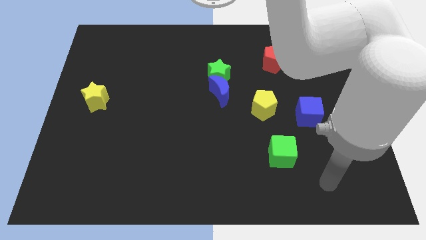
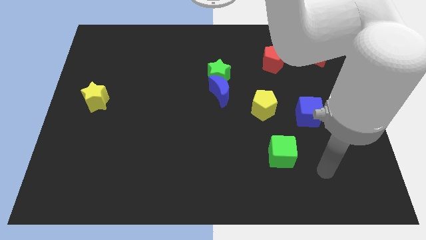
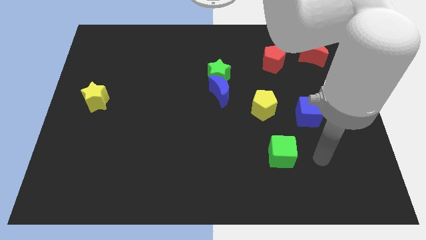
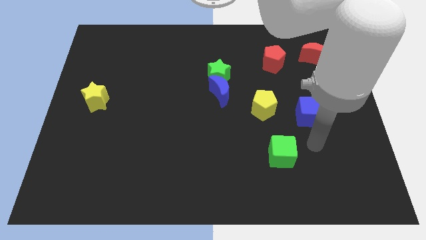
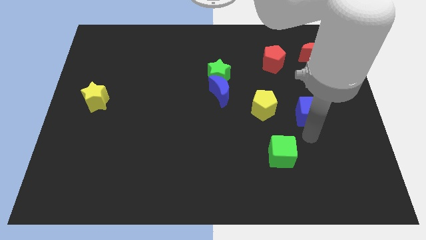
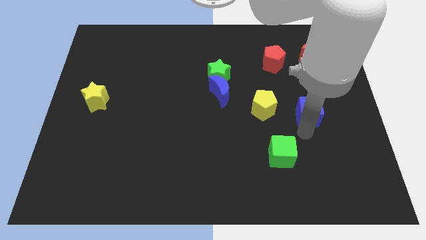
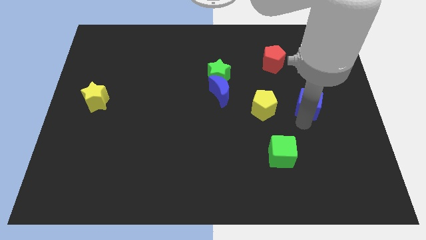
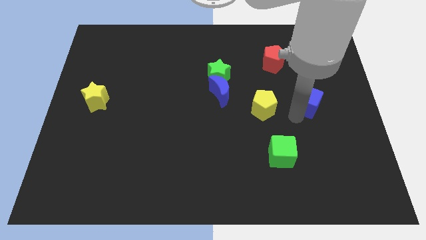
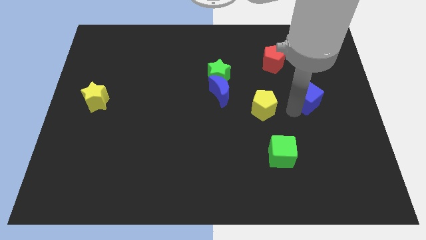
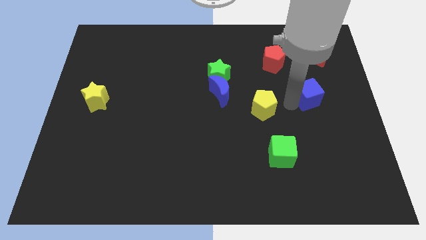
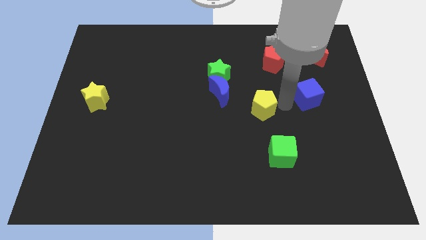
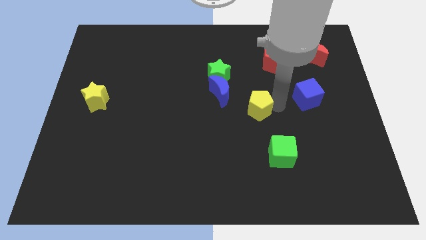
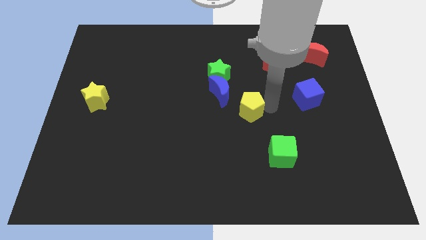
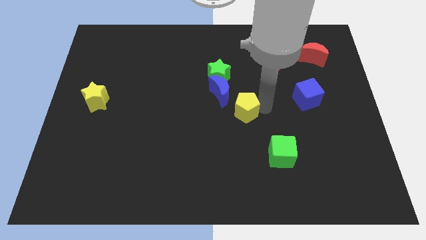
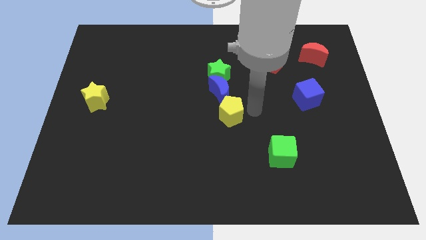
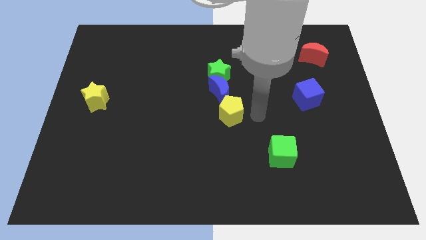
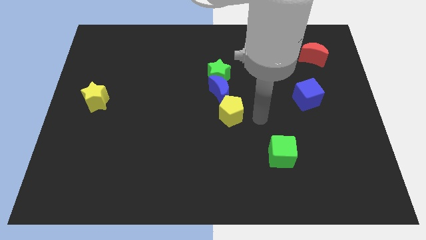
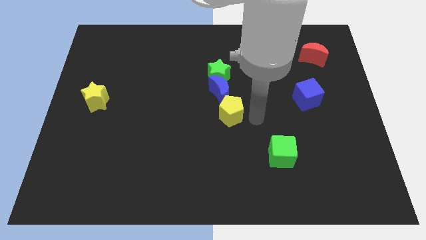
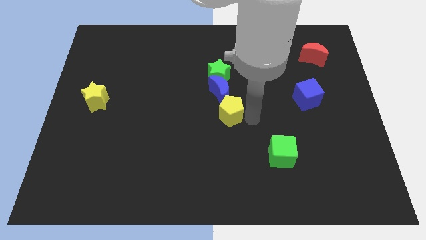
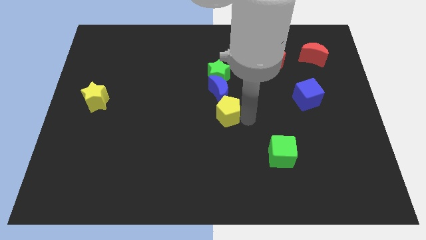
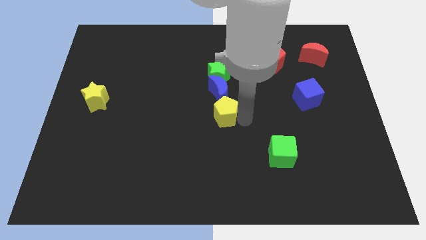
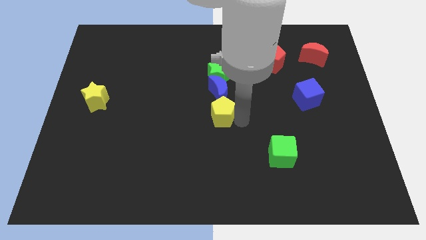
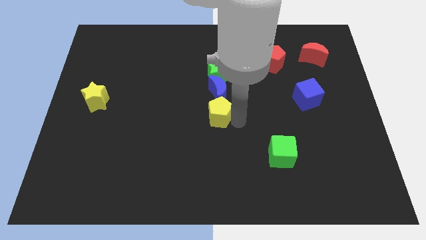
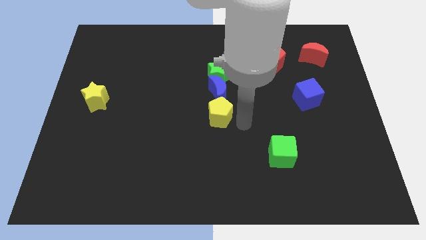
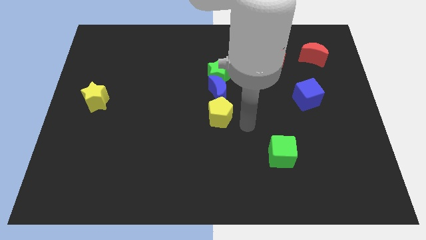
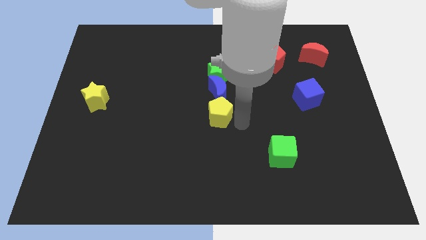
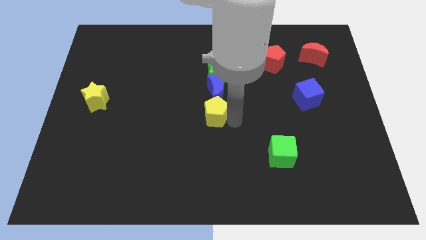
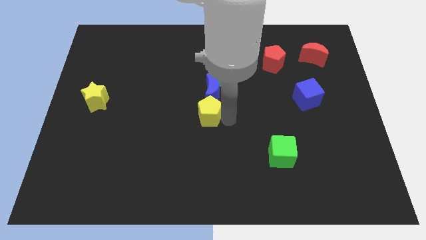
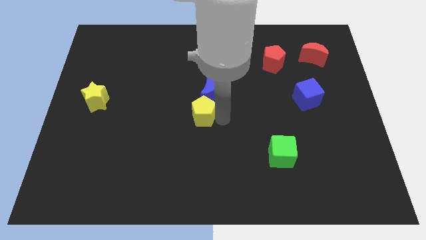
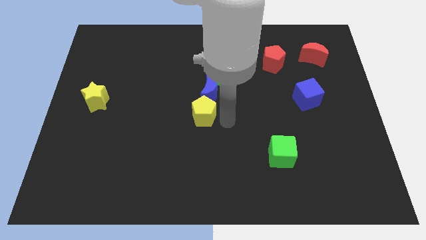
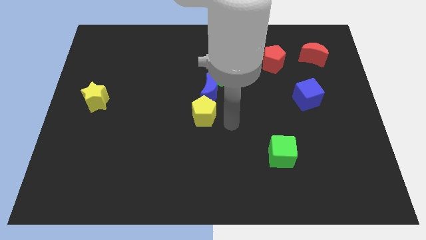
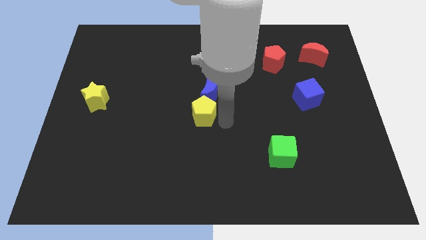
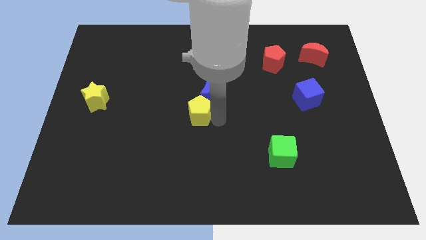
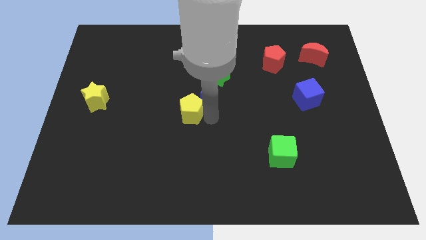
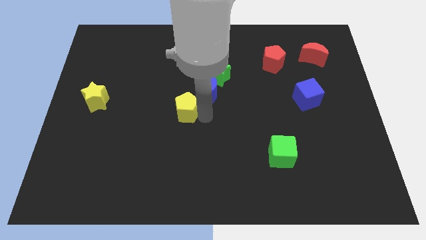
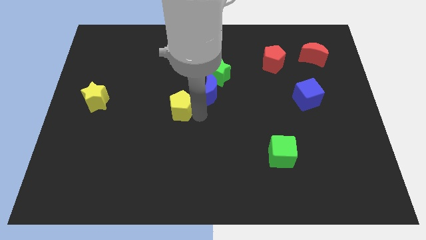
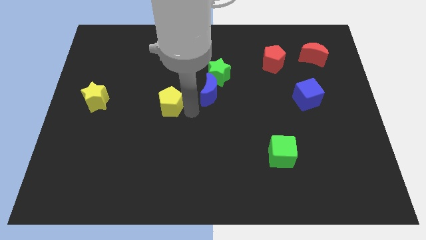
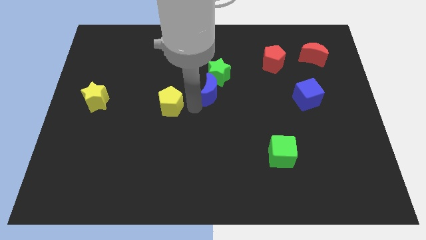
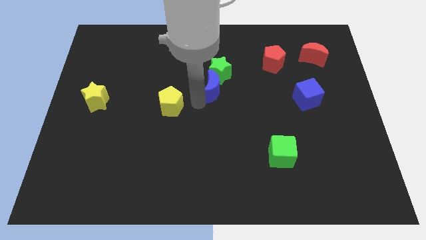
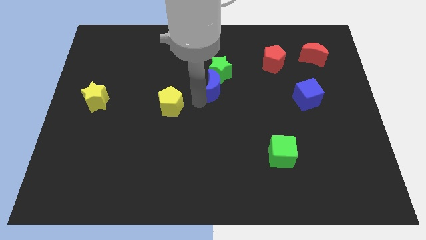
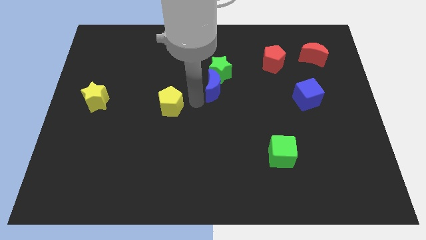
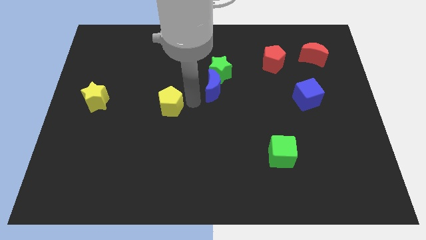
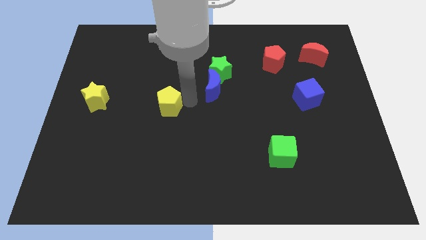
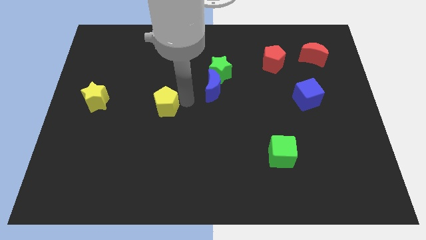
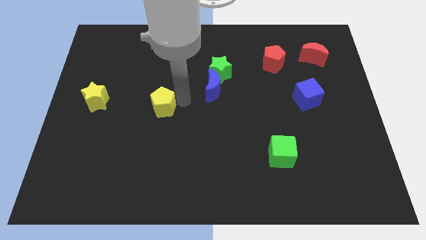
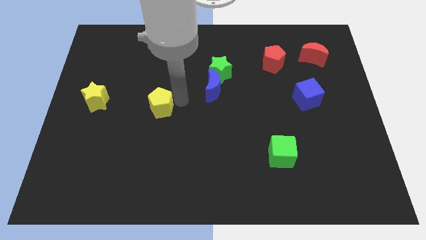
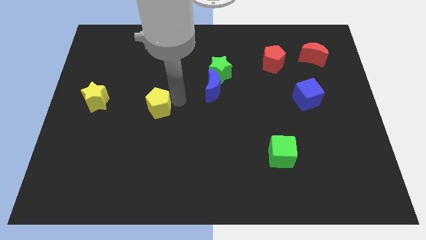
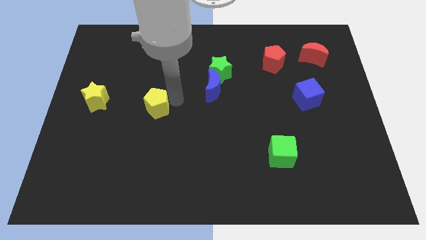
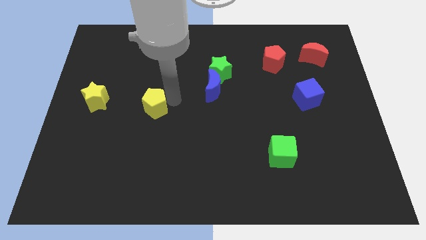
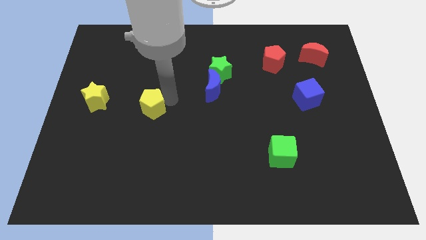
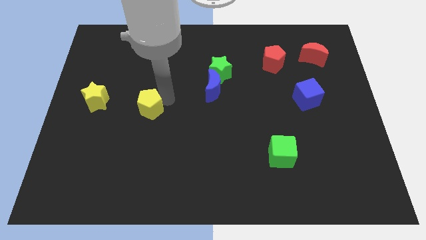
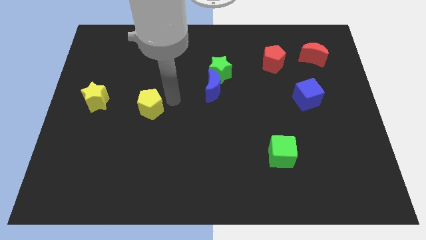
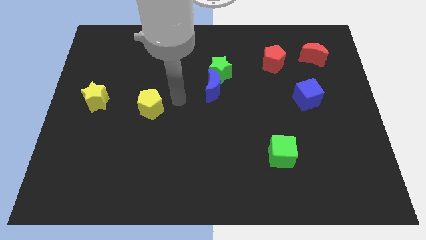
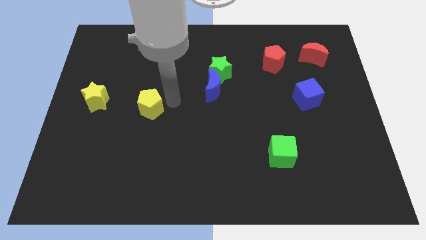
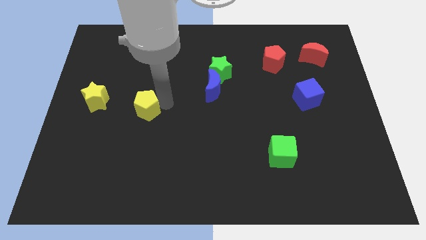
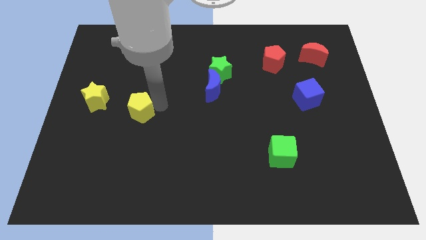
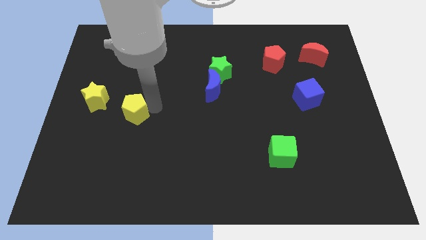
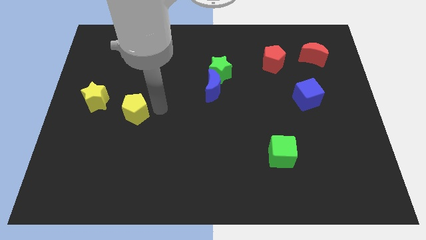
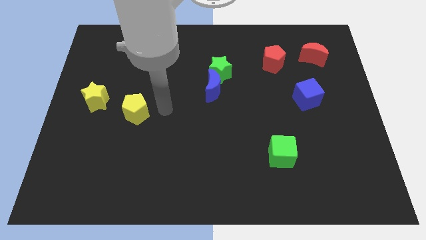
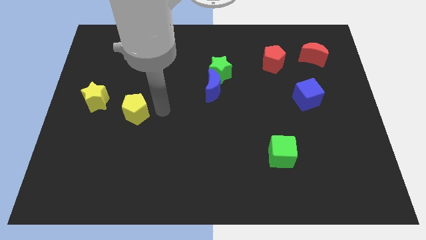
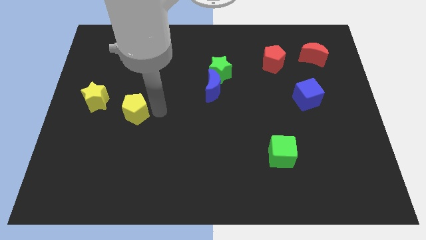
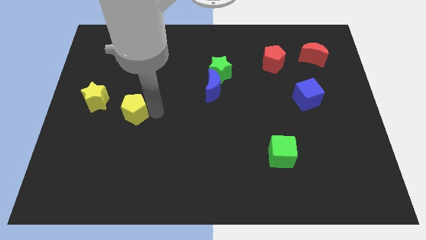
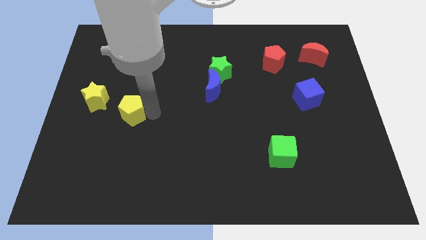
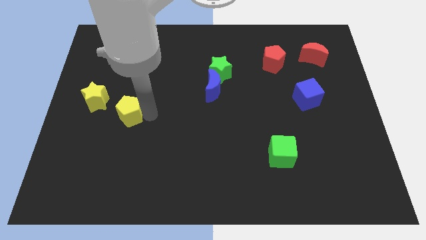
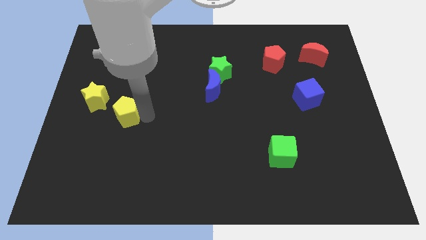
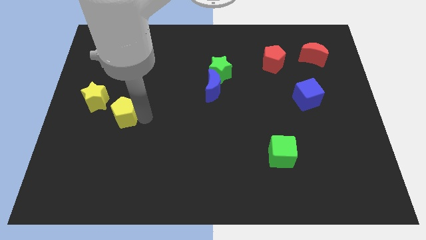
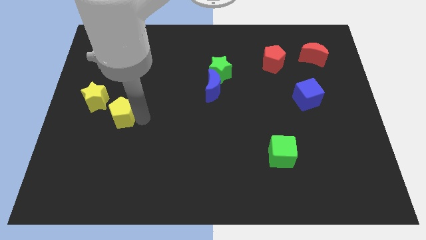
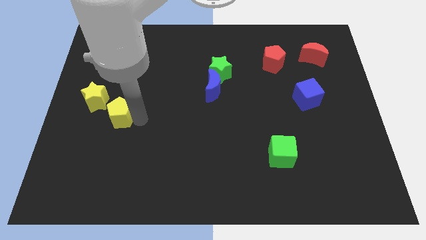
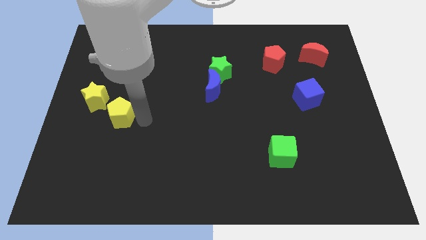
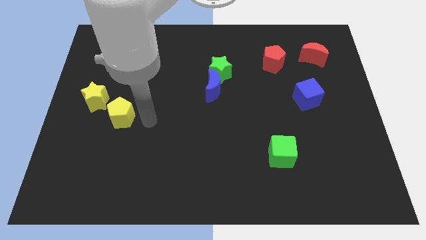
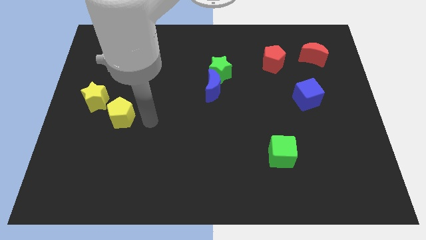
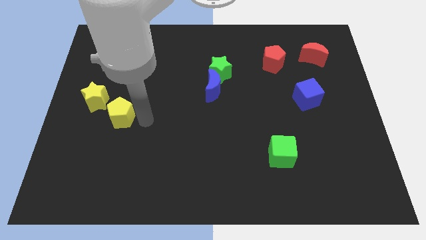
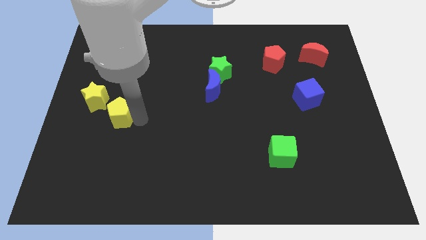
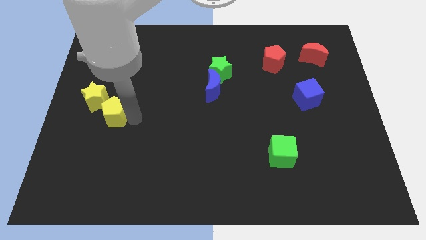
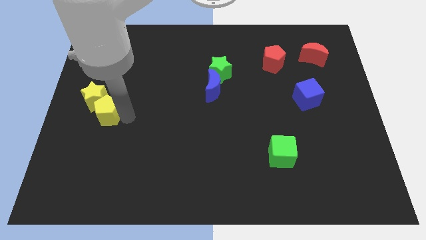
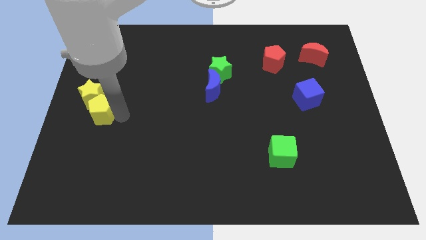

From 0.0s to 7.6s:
put the yellow pentagon to the left side
